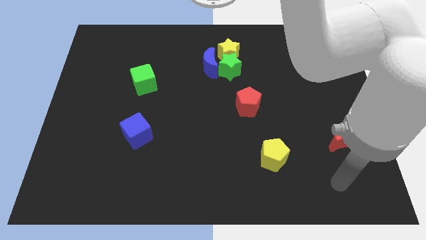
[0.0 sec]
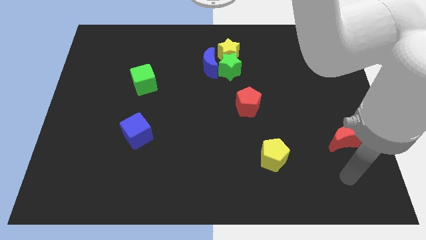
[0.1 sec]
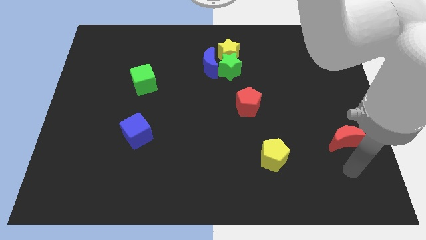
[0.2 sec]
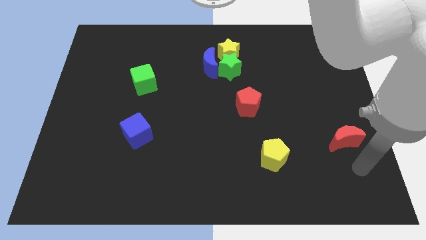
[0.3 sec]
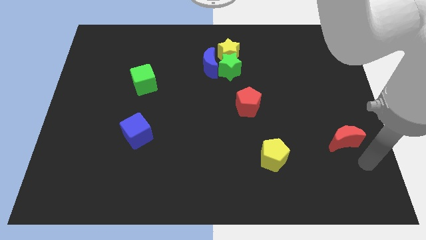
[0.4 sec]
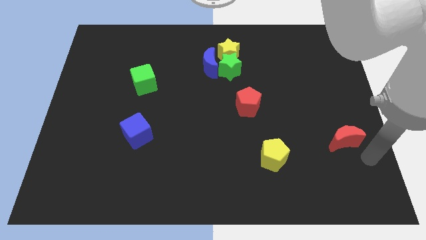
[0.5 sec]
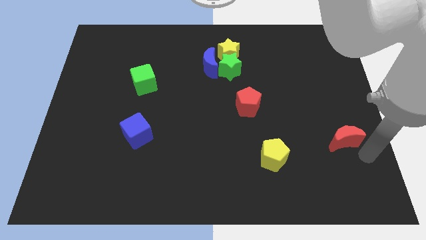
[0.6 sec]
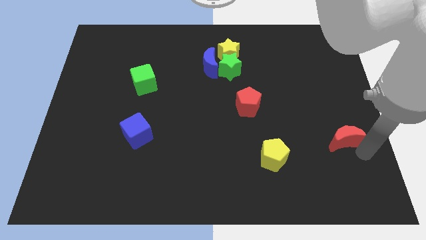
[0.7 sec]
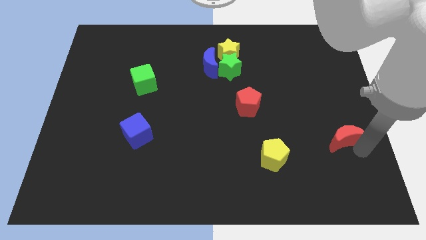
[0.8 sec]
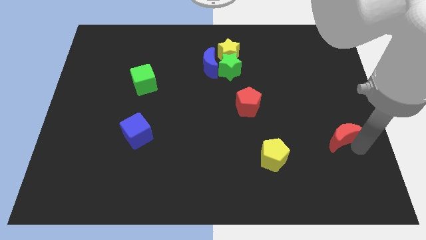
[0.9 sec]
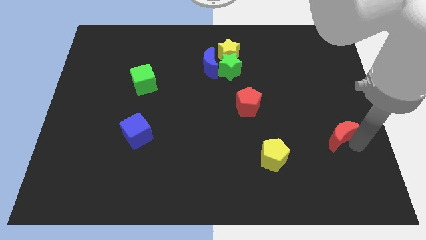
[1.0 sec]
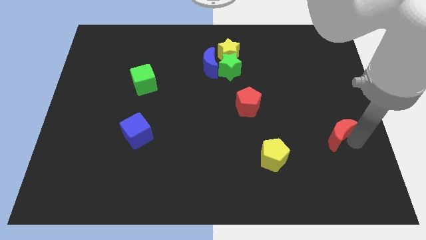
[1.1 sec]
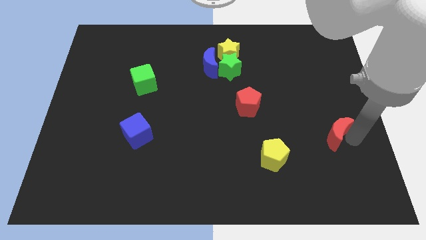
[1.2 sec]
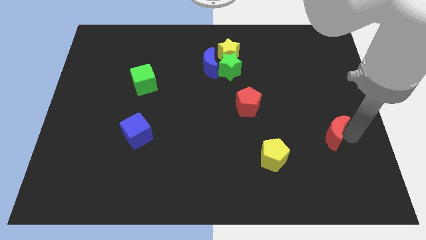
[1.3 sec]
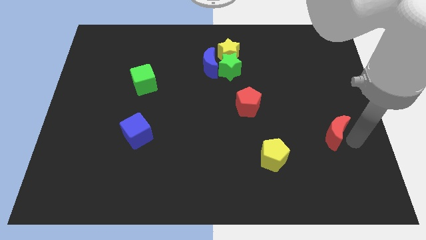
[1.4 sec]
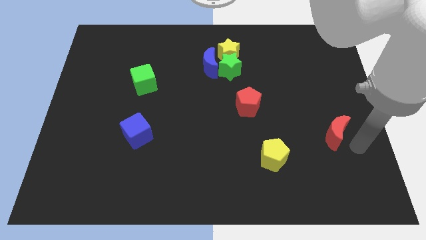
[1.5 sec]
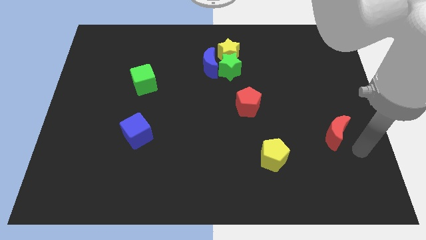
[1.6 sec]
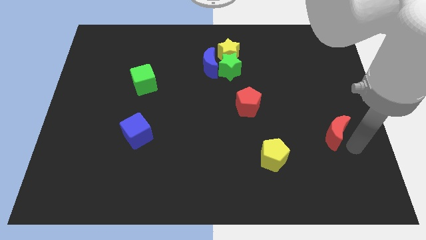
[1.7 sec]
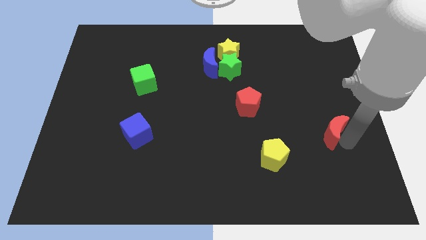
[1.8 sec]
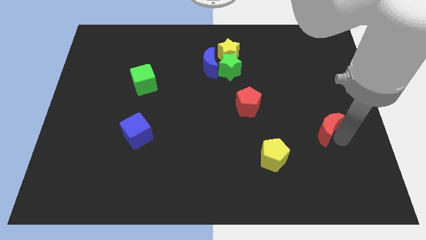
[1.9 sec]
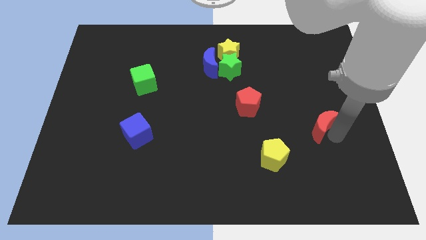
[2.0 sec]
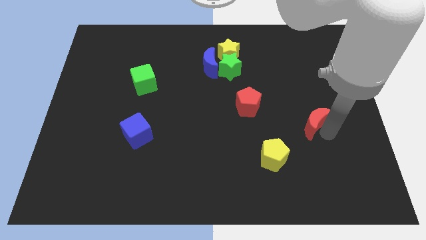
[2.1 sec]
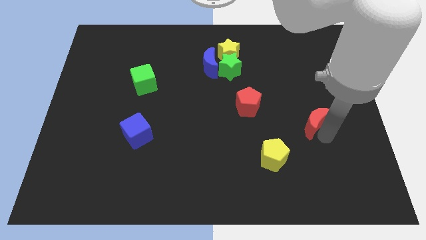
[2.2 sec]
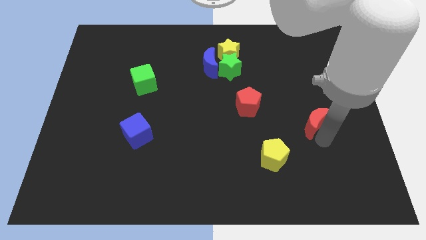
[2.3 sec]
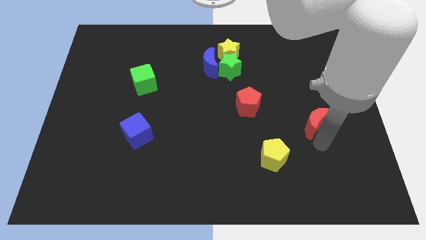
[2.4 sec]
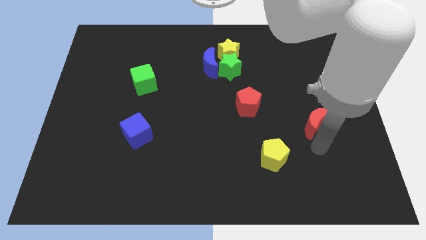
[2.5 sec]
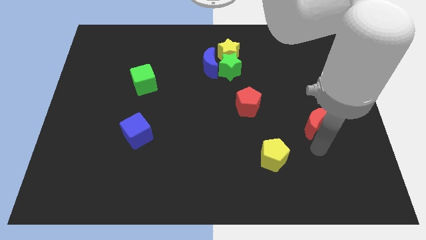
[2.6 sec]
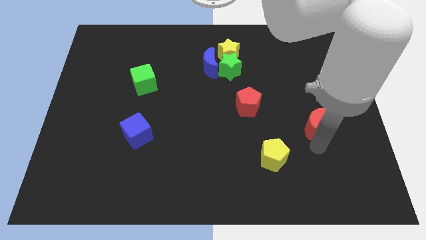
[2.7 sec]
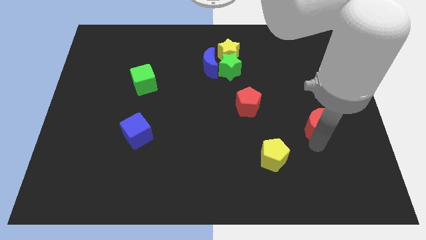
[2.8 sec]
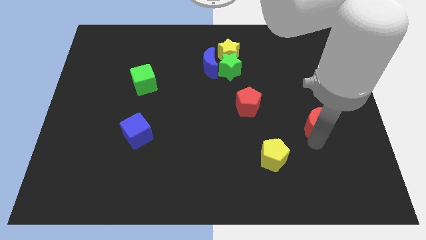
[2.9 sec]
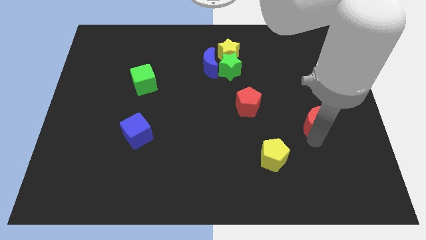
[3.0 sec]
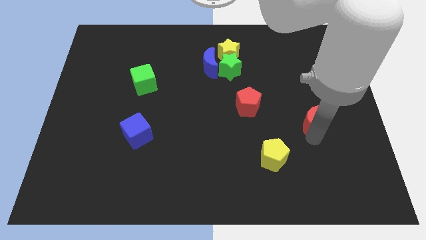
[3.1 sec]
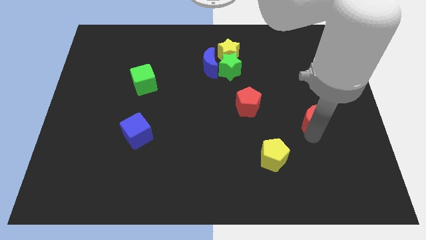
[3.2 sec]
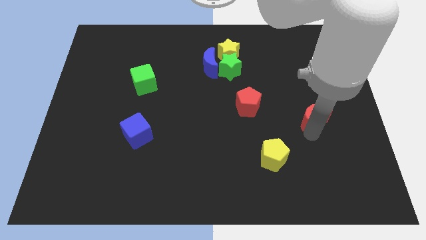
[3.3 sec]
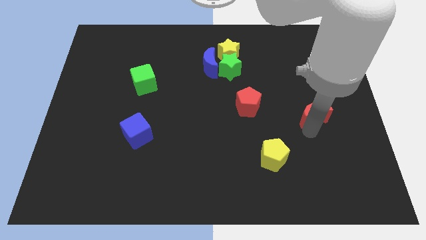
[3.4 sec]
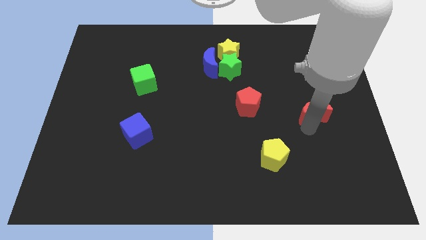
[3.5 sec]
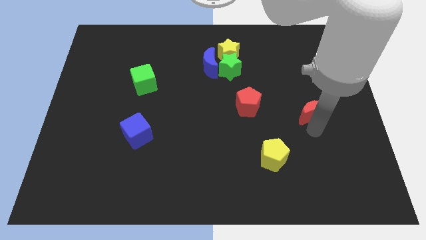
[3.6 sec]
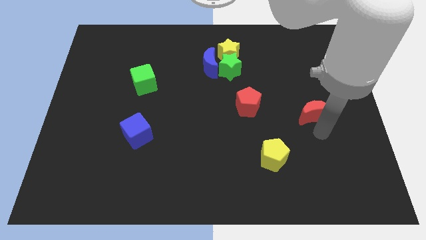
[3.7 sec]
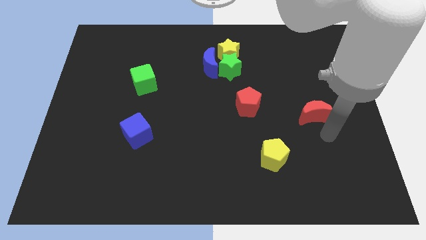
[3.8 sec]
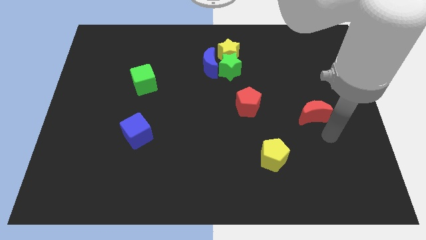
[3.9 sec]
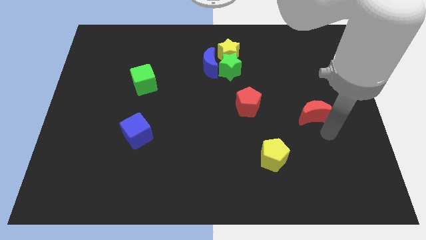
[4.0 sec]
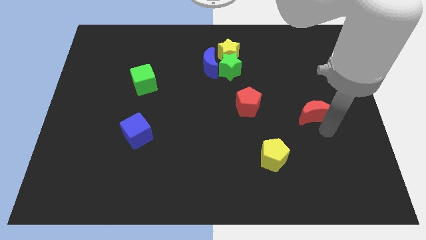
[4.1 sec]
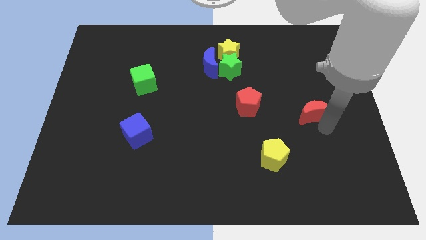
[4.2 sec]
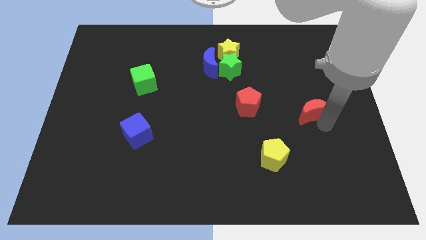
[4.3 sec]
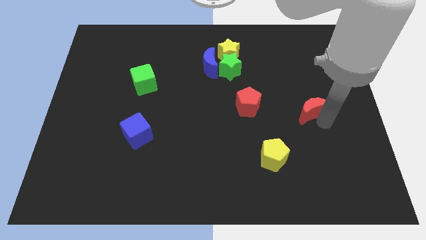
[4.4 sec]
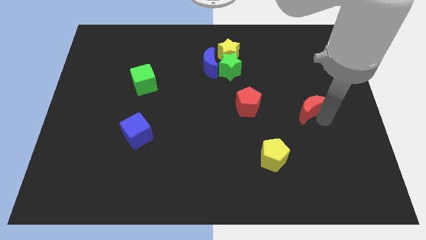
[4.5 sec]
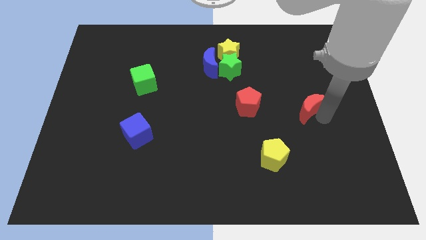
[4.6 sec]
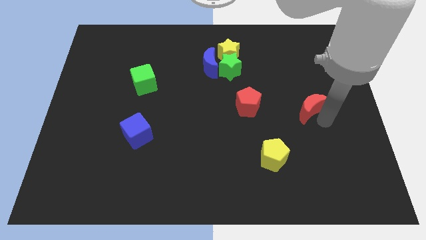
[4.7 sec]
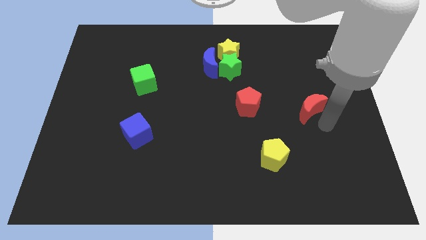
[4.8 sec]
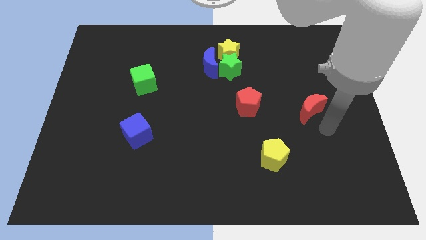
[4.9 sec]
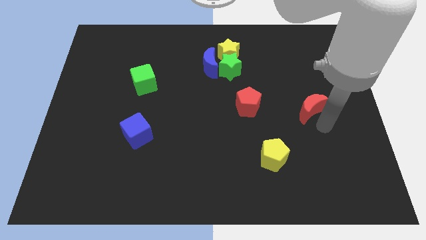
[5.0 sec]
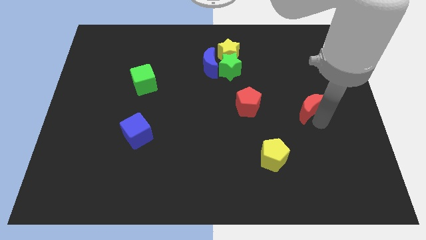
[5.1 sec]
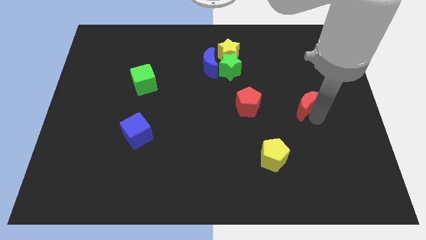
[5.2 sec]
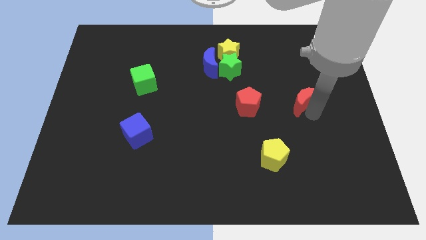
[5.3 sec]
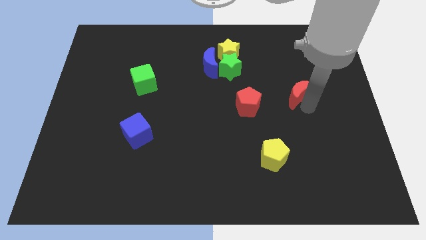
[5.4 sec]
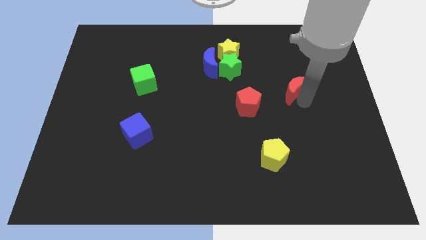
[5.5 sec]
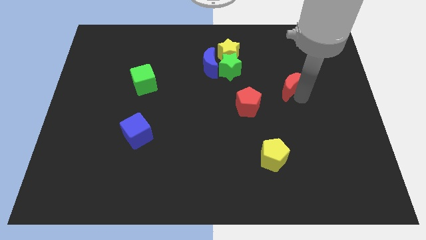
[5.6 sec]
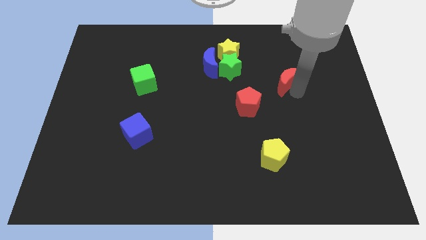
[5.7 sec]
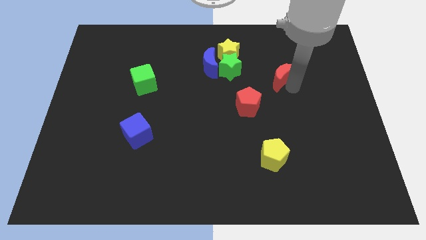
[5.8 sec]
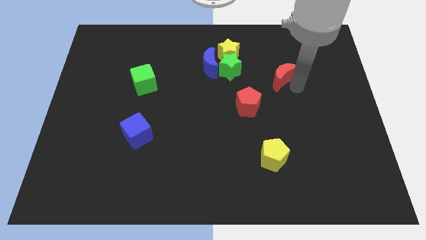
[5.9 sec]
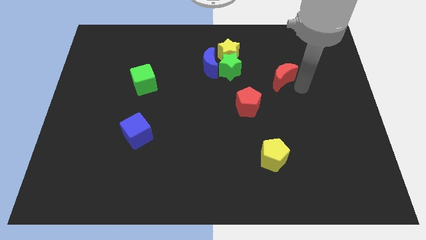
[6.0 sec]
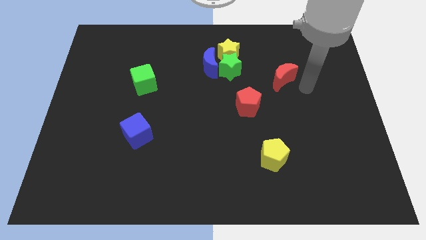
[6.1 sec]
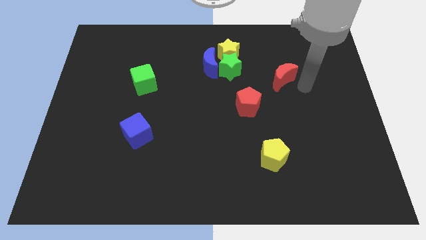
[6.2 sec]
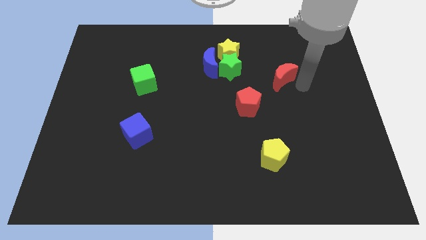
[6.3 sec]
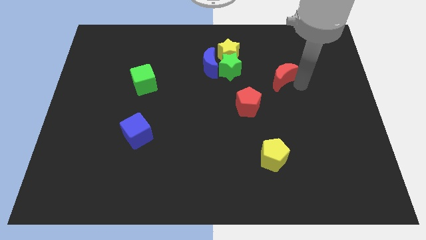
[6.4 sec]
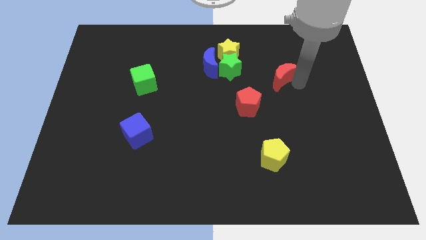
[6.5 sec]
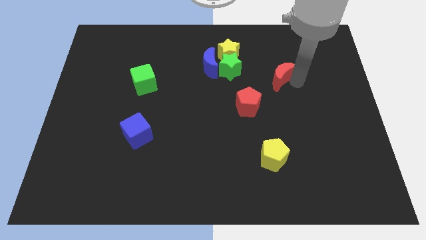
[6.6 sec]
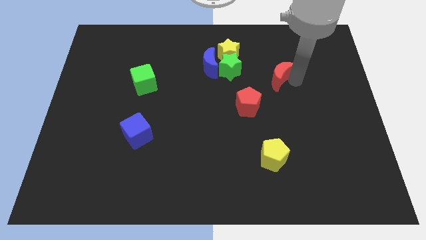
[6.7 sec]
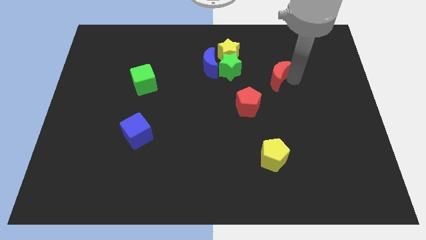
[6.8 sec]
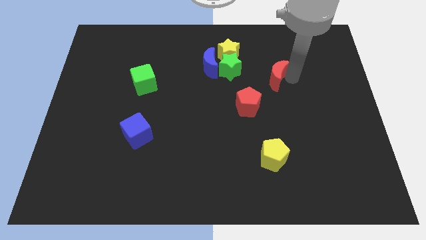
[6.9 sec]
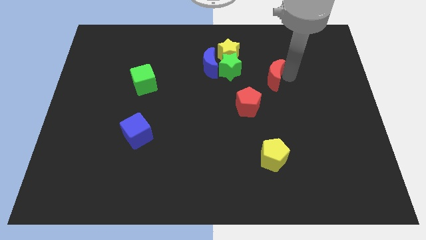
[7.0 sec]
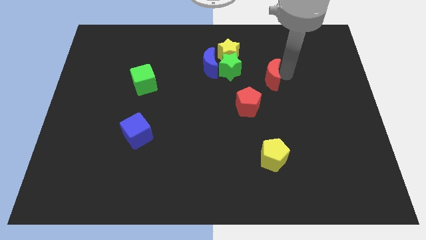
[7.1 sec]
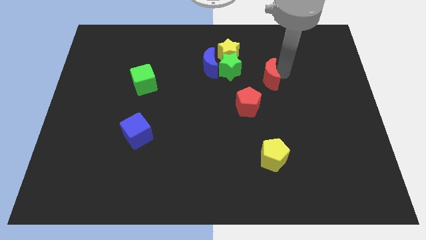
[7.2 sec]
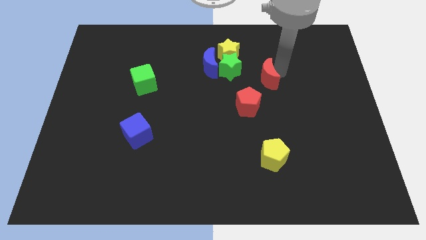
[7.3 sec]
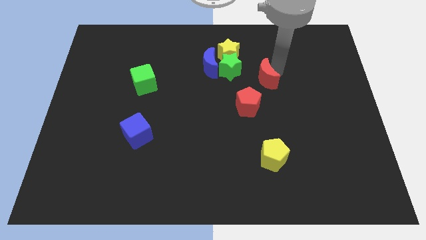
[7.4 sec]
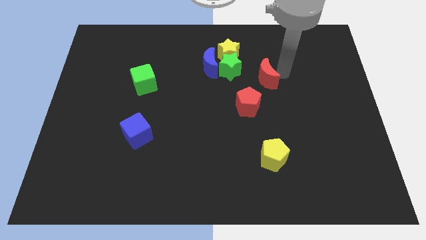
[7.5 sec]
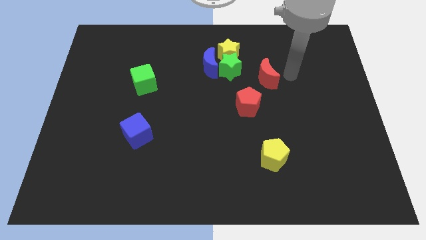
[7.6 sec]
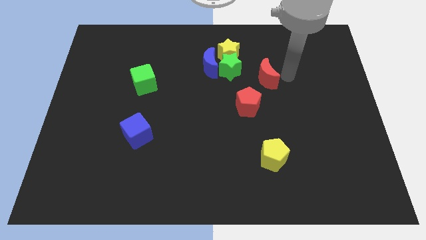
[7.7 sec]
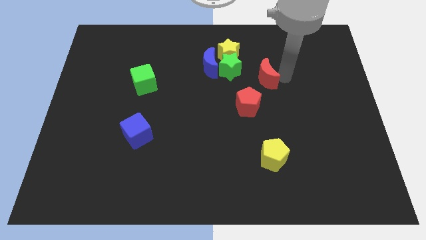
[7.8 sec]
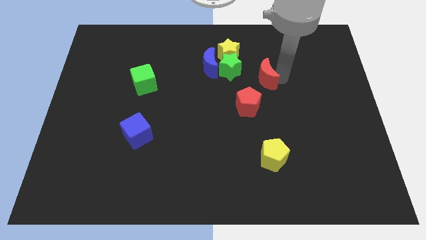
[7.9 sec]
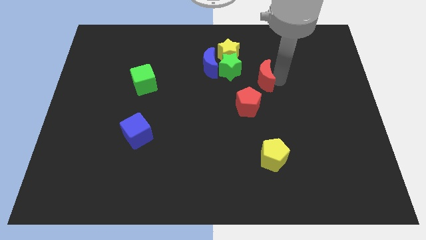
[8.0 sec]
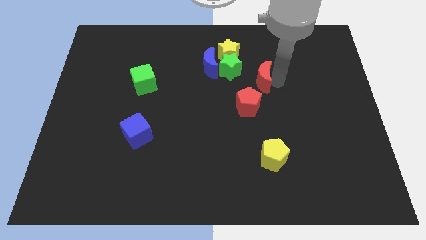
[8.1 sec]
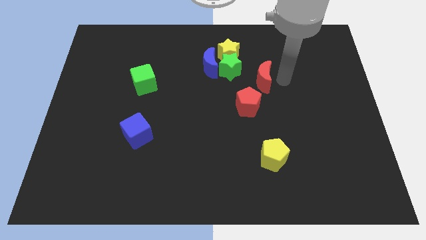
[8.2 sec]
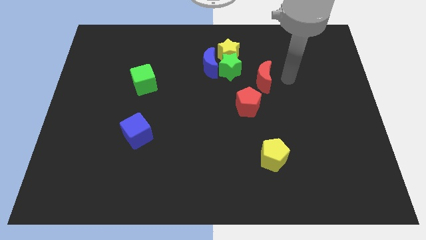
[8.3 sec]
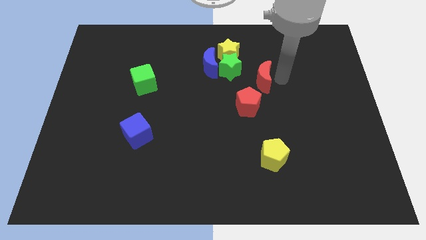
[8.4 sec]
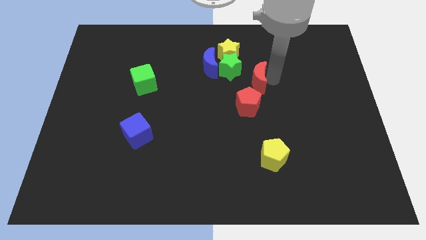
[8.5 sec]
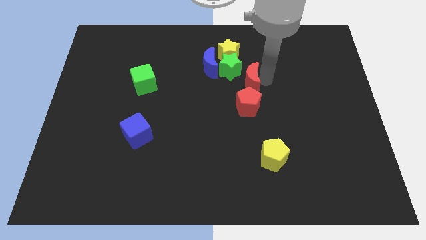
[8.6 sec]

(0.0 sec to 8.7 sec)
put the red moon to the bottom right of the blue moon
